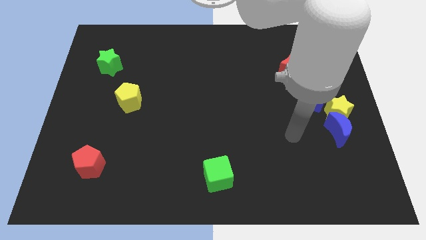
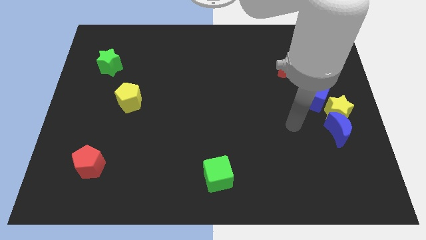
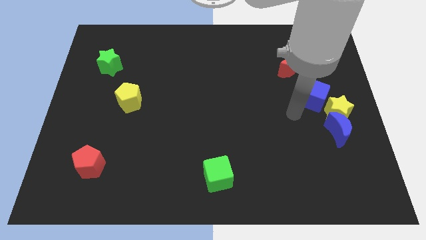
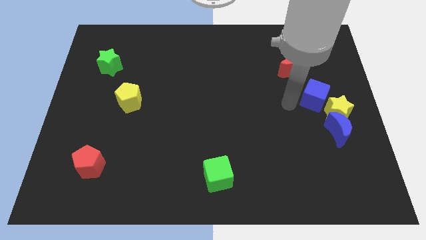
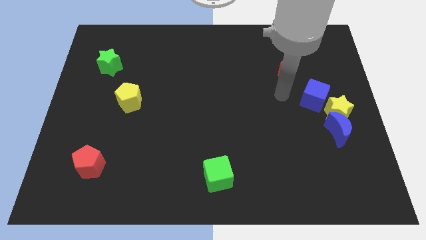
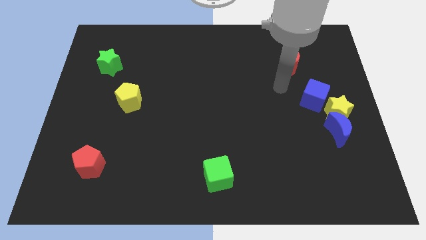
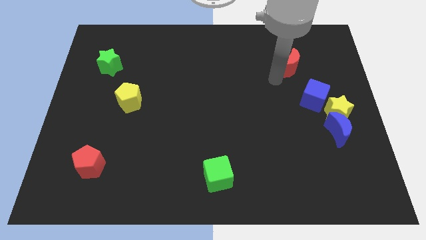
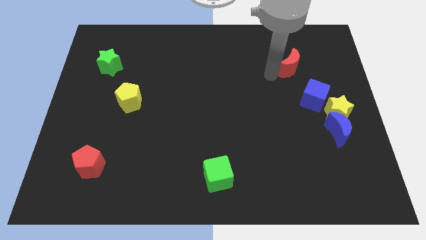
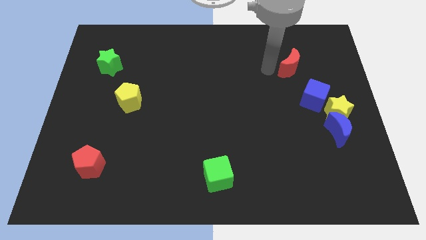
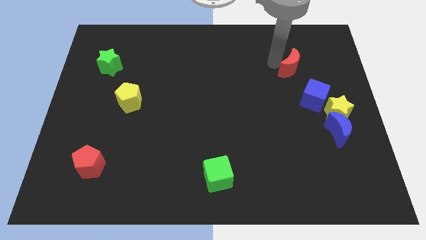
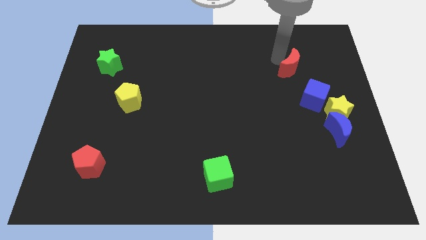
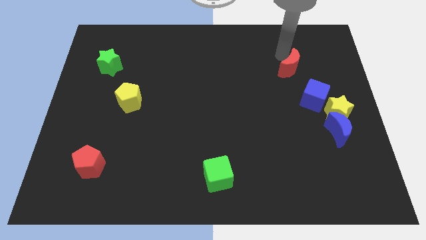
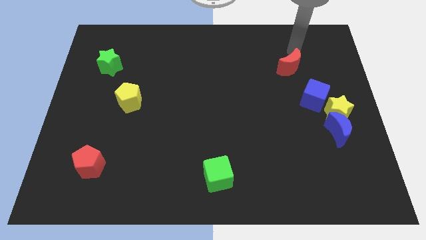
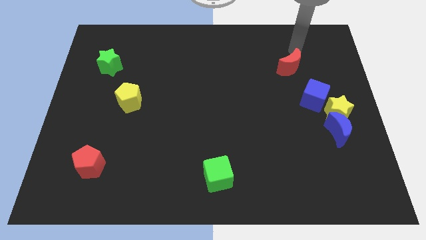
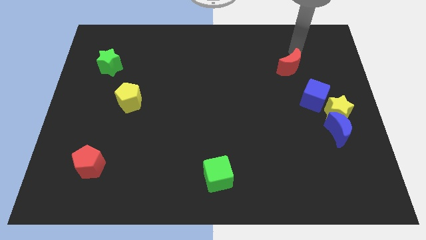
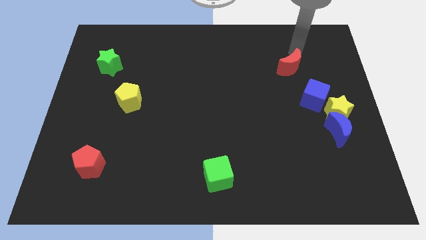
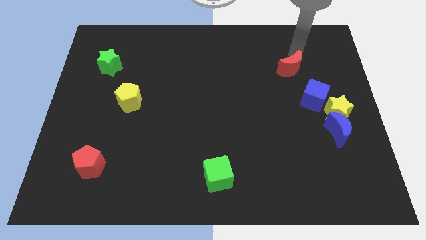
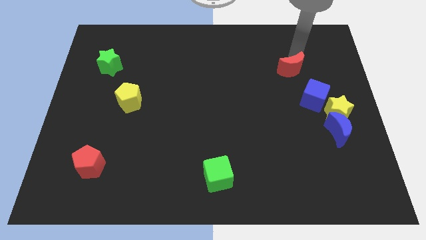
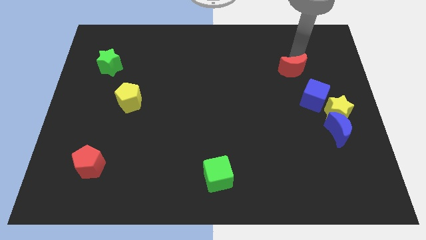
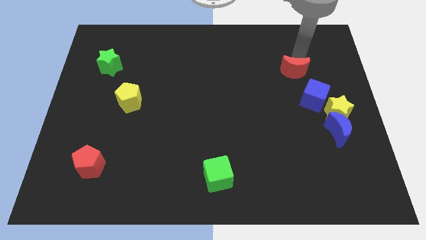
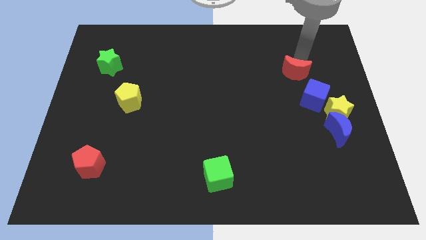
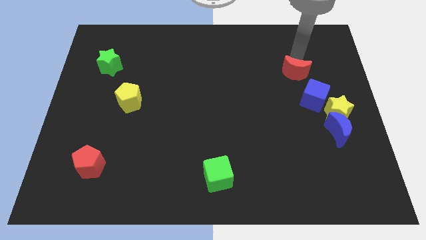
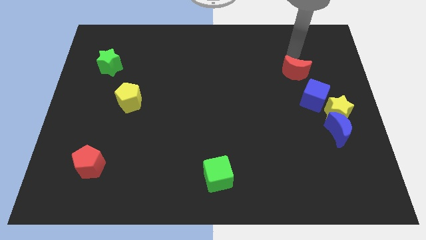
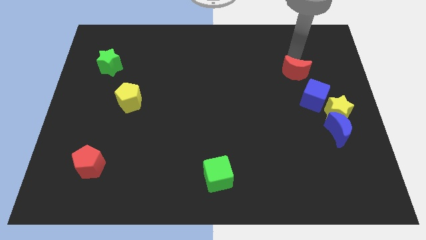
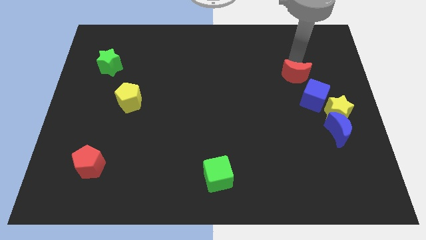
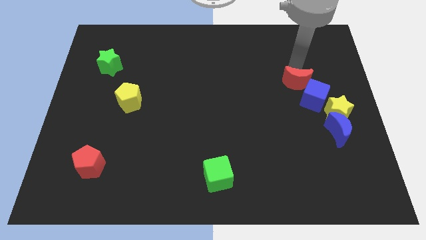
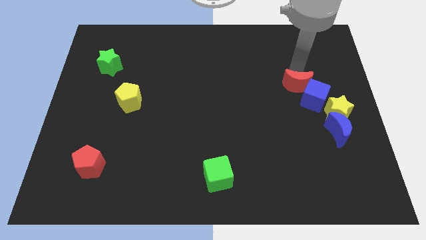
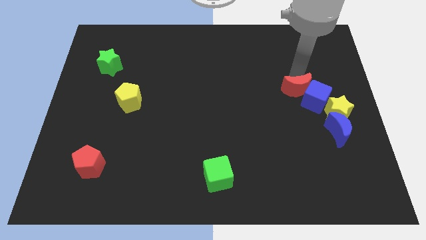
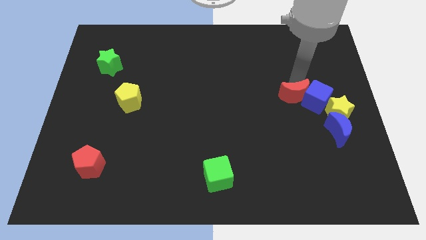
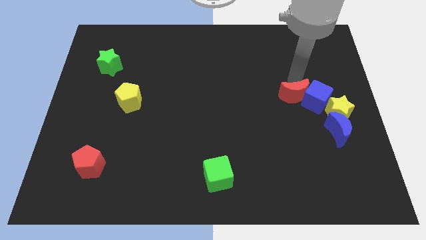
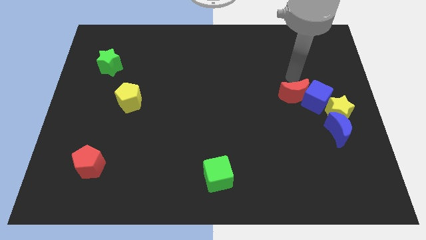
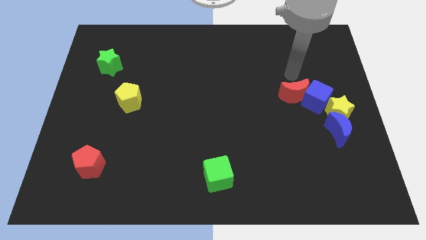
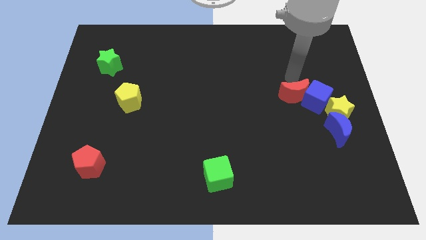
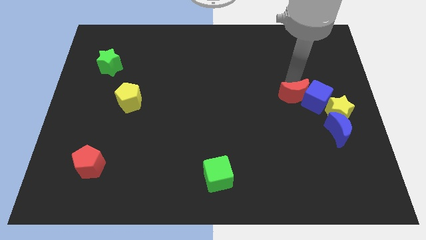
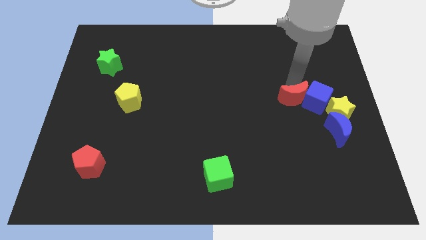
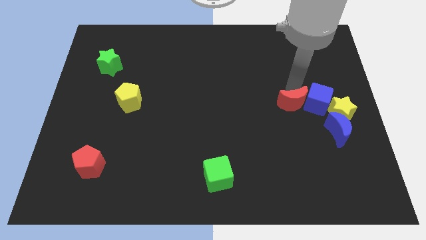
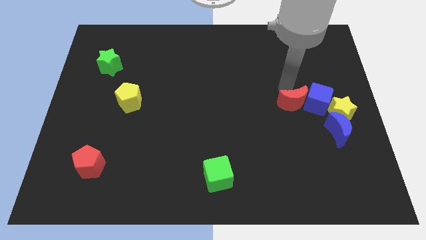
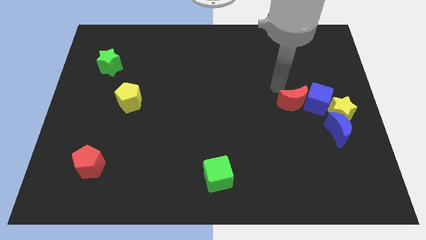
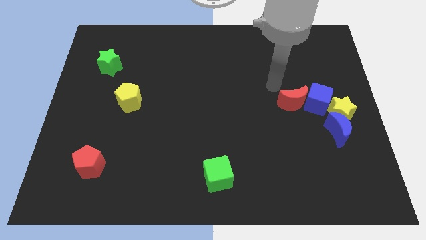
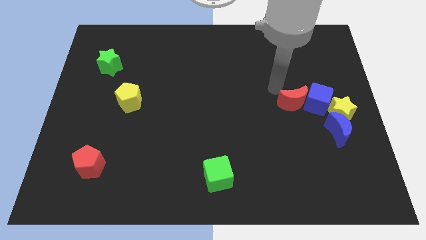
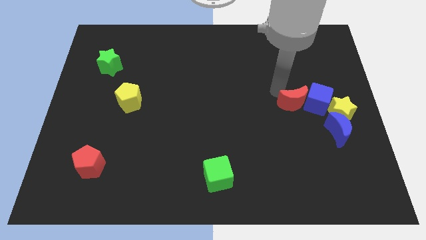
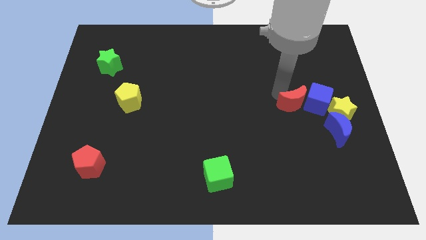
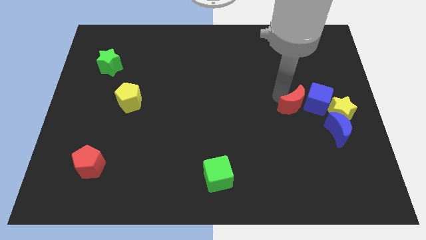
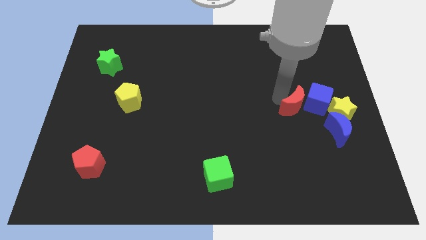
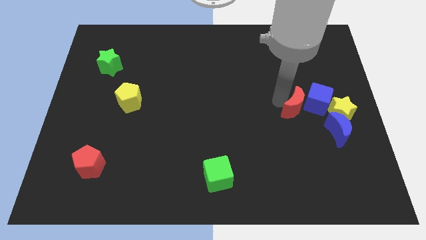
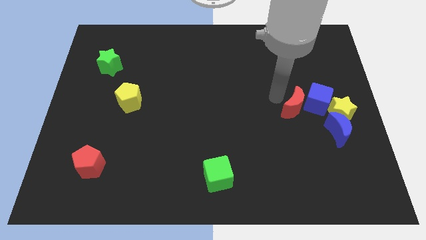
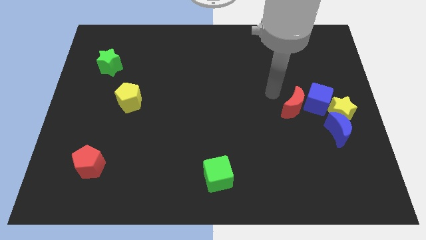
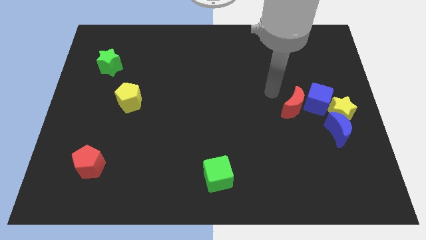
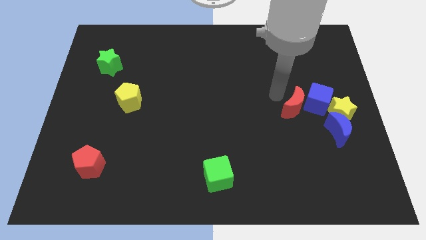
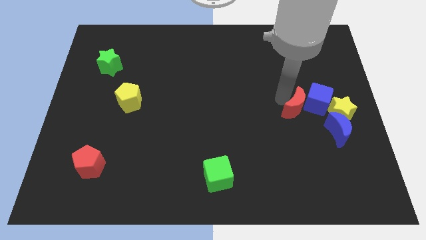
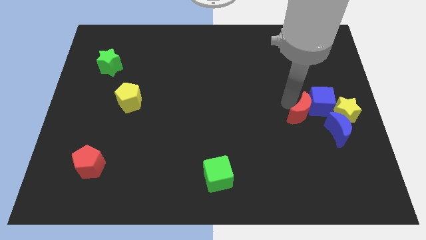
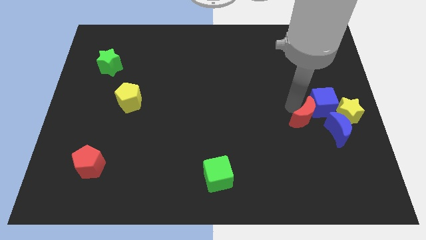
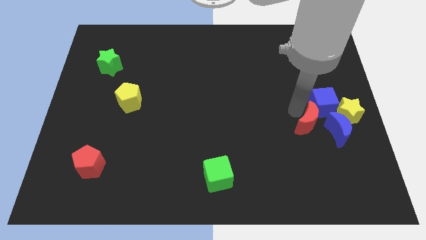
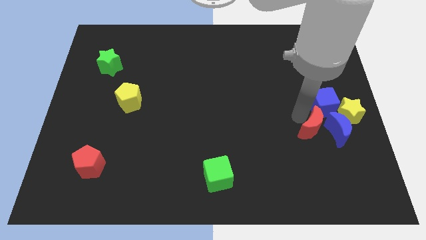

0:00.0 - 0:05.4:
move the red moon to the blue moon

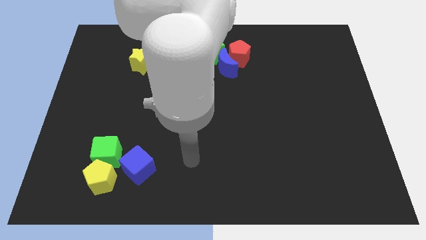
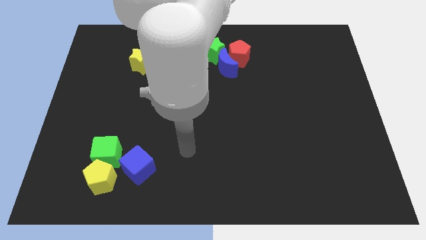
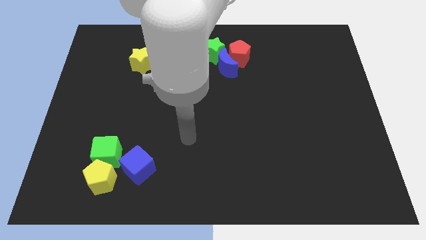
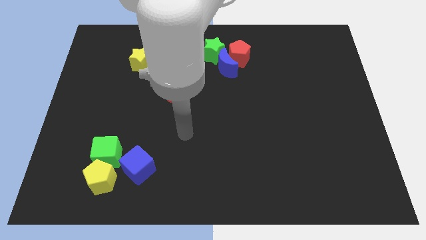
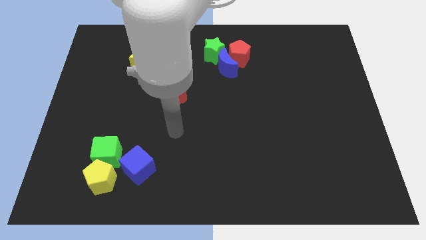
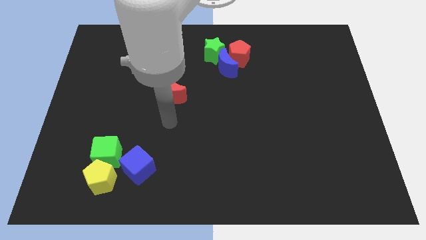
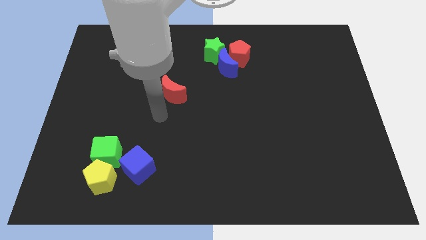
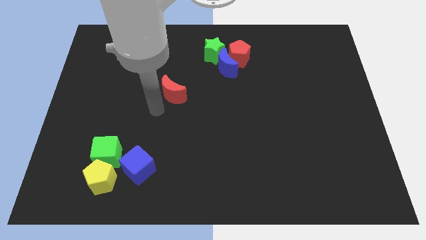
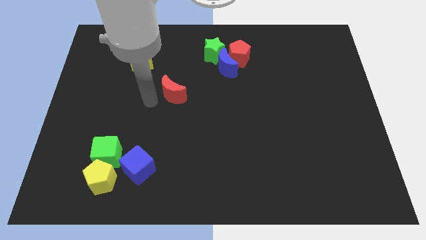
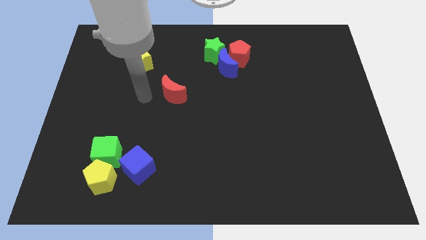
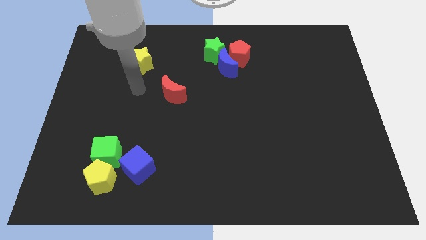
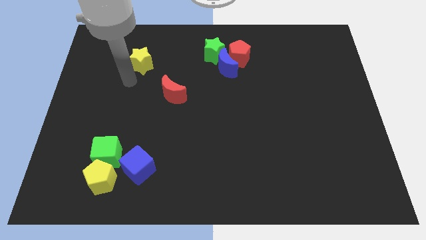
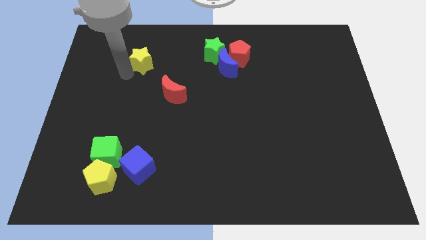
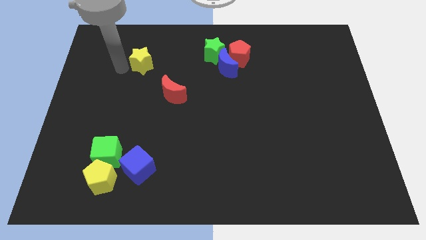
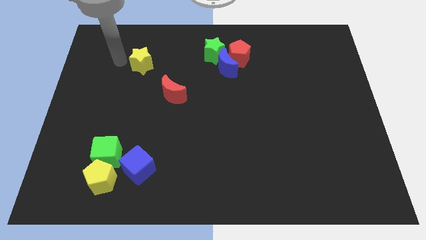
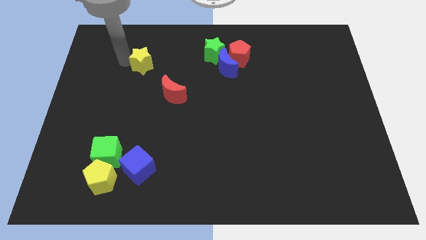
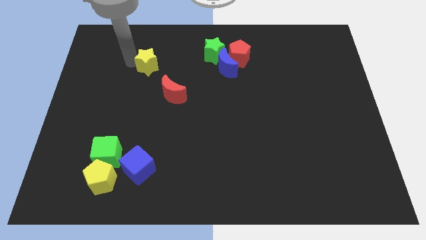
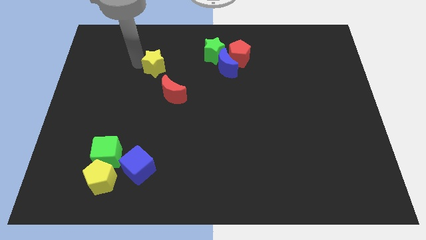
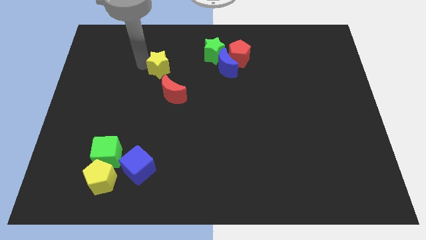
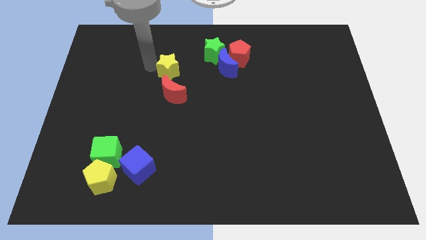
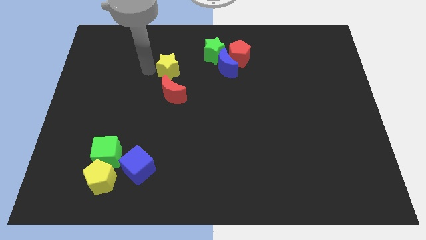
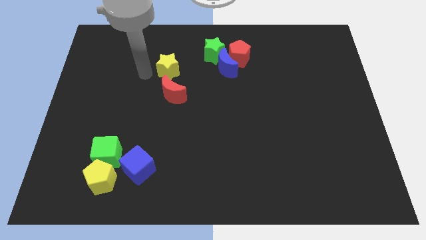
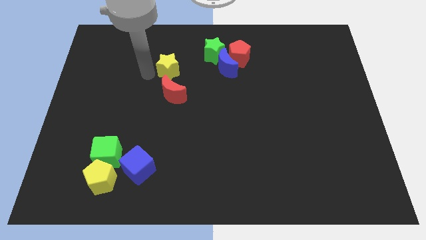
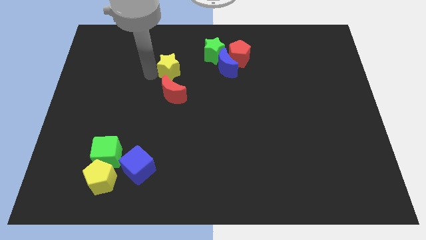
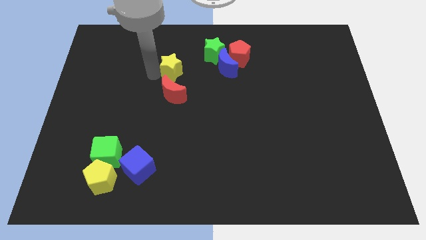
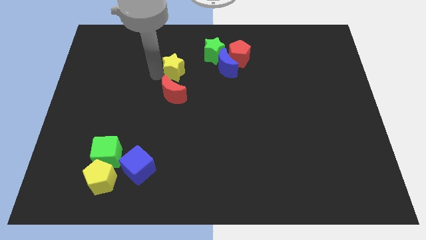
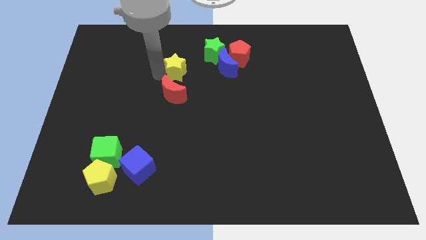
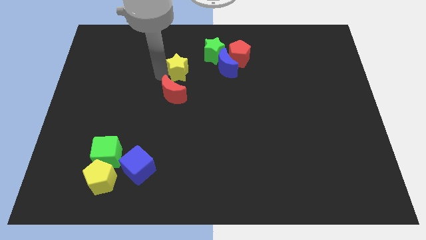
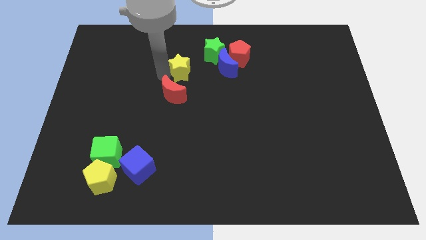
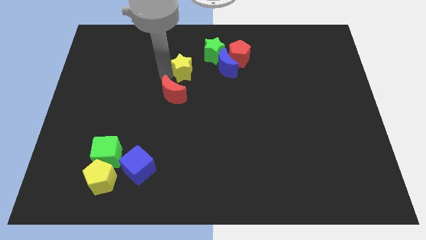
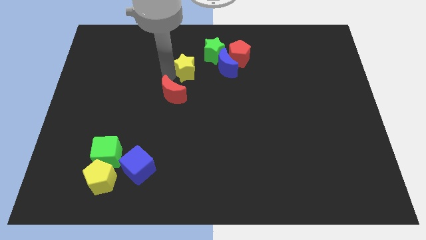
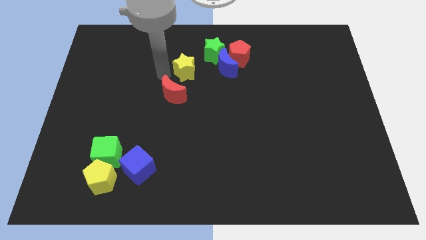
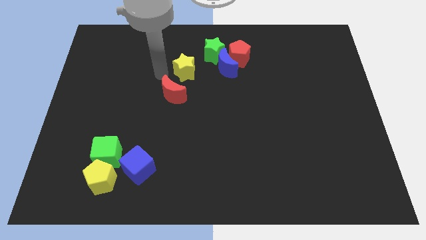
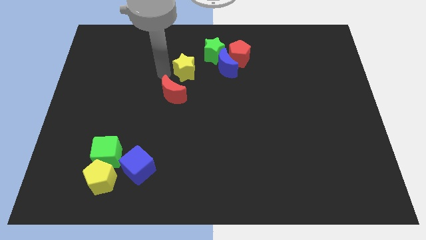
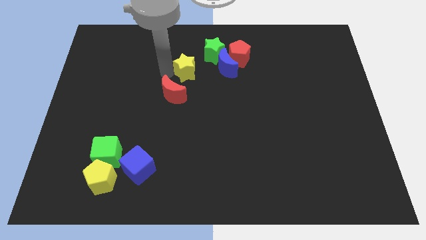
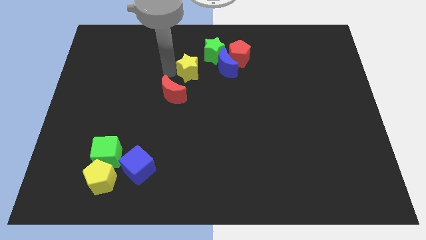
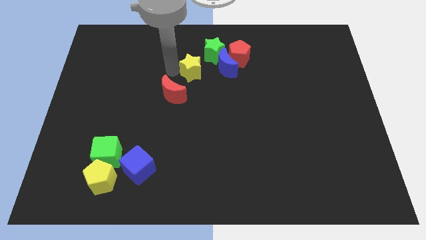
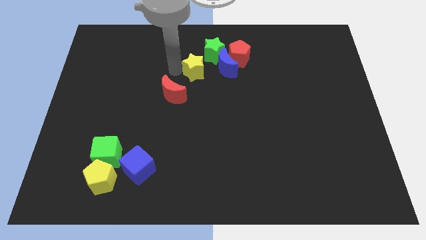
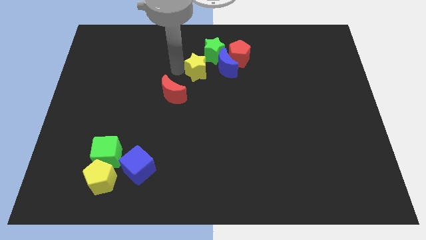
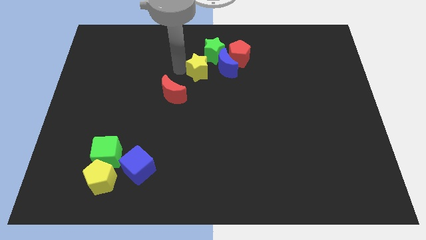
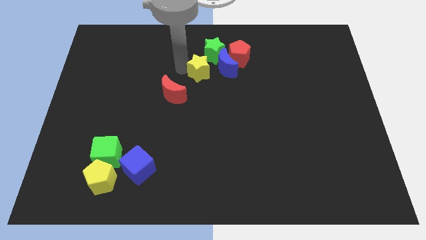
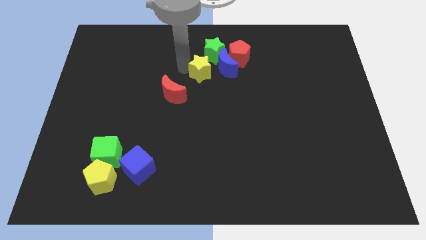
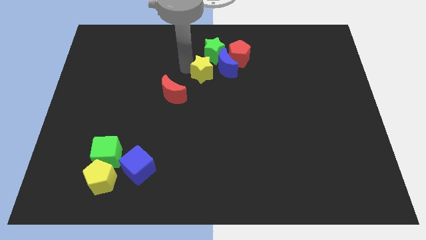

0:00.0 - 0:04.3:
slide the yellow star to the blue moon
